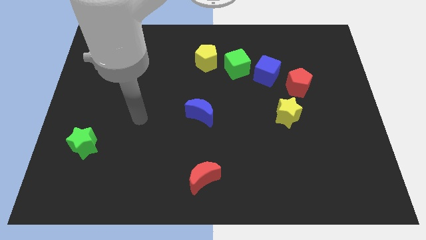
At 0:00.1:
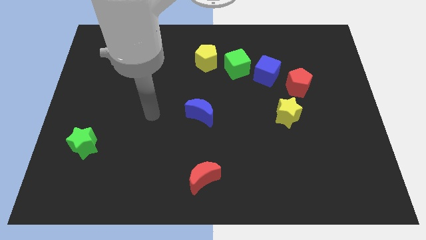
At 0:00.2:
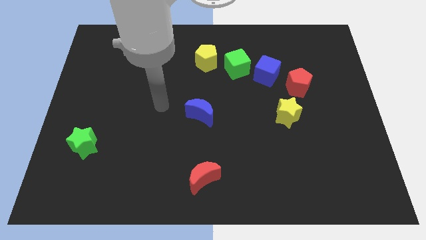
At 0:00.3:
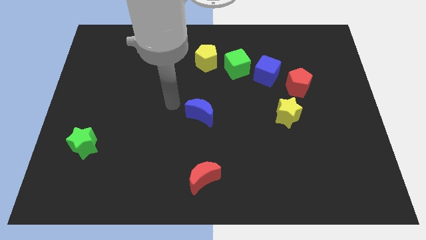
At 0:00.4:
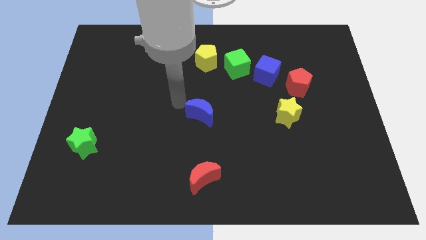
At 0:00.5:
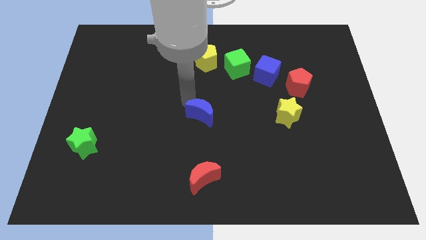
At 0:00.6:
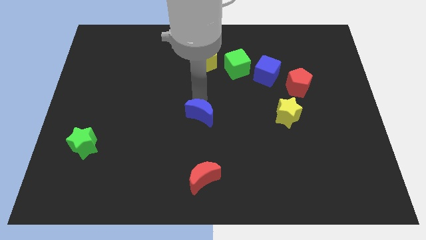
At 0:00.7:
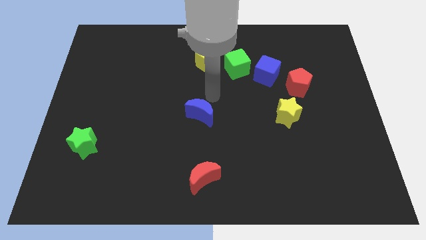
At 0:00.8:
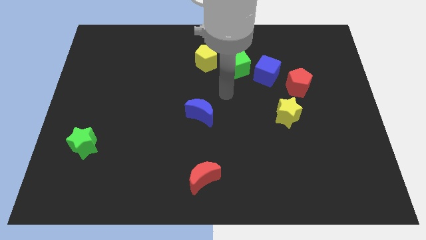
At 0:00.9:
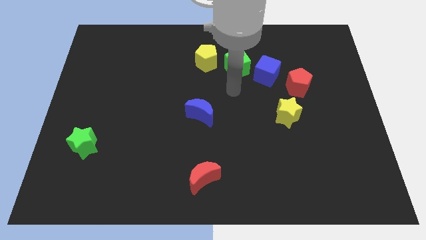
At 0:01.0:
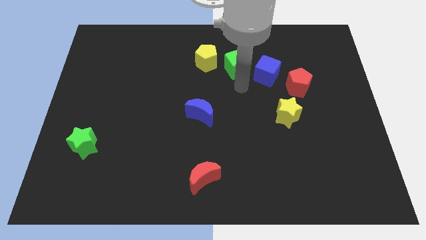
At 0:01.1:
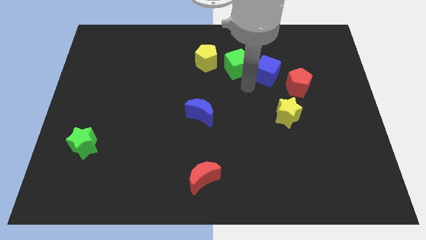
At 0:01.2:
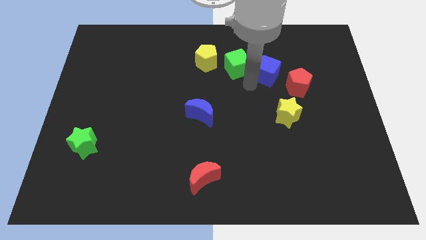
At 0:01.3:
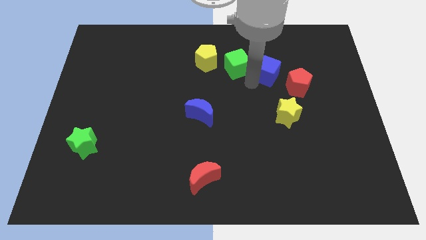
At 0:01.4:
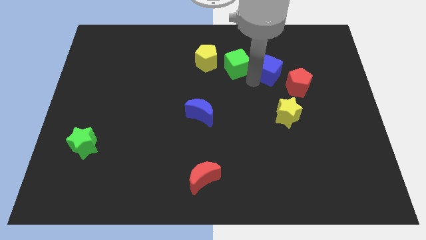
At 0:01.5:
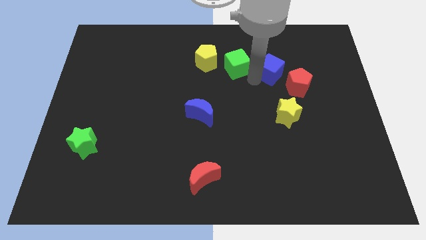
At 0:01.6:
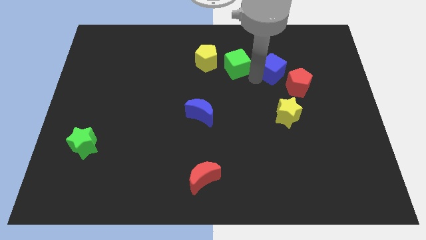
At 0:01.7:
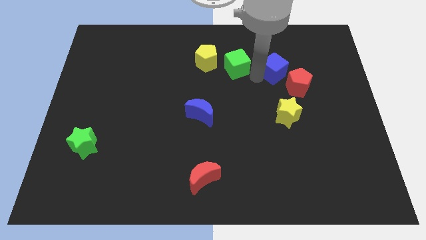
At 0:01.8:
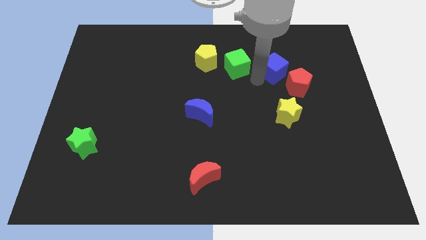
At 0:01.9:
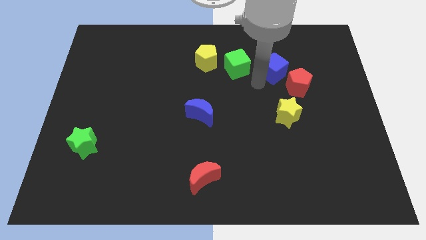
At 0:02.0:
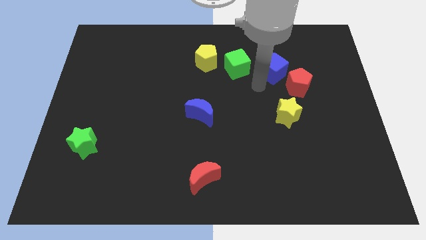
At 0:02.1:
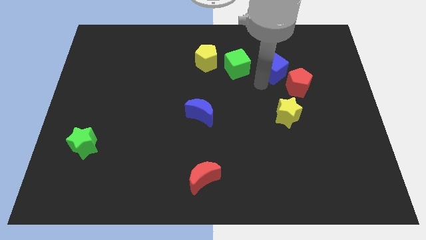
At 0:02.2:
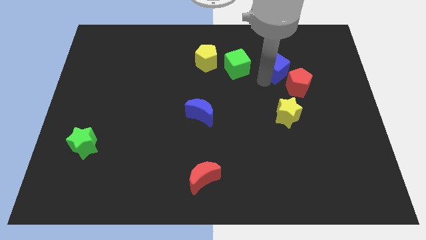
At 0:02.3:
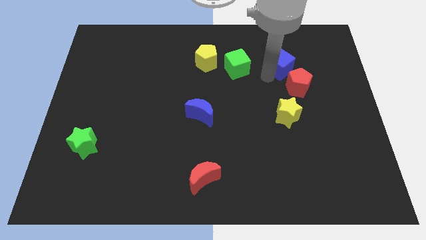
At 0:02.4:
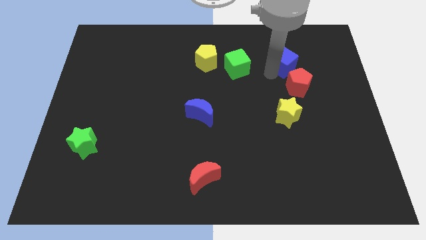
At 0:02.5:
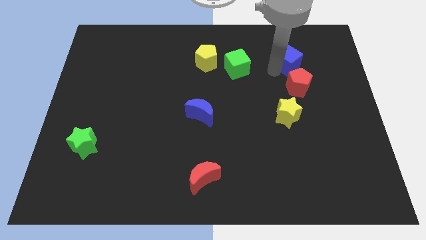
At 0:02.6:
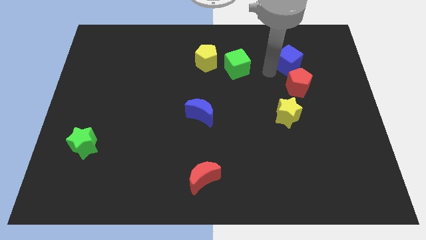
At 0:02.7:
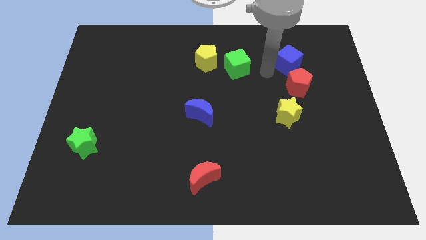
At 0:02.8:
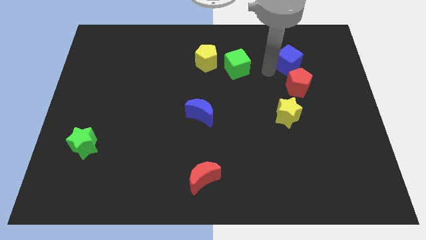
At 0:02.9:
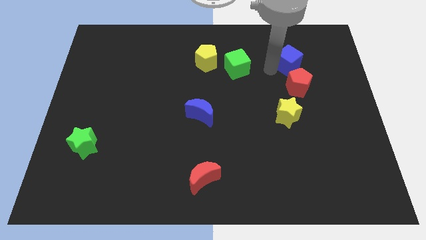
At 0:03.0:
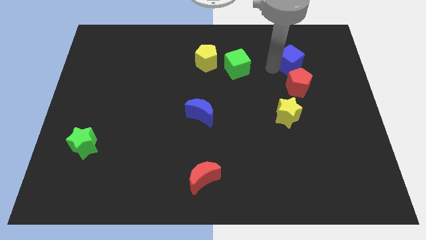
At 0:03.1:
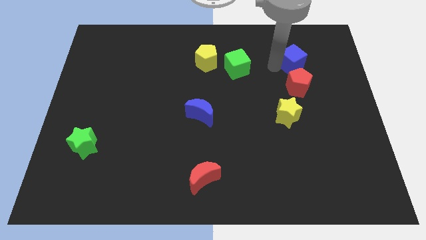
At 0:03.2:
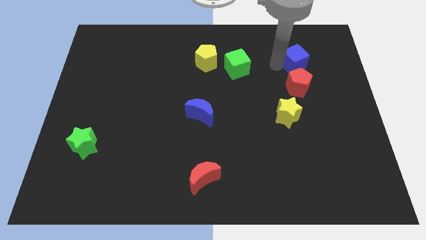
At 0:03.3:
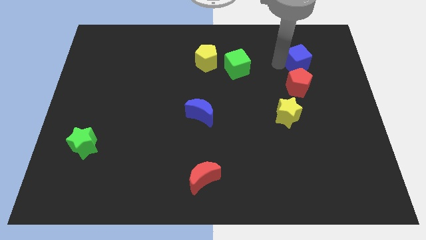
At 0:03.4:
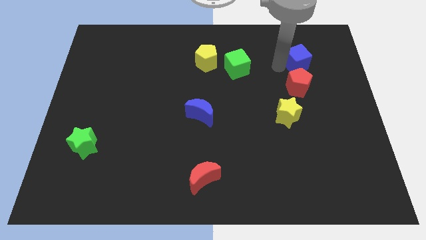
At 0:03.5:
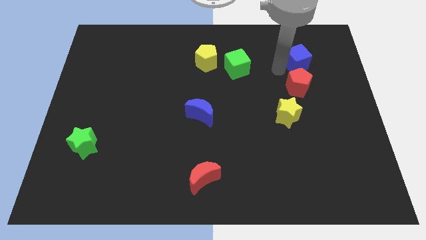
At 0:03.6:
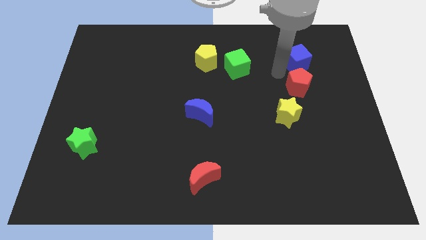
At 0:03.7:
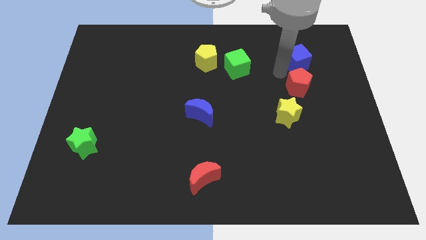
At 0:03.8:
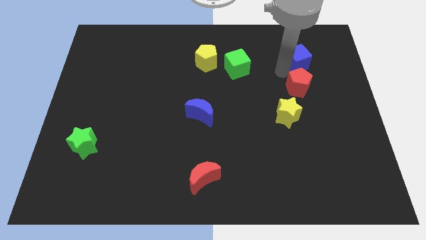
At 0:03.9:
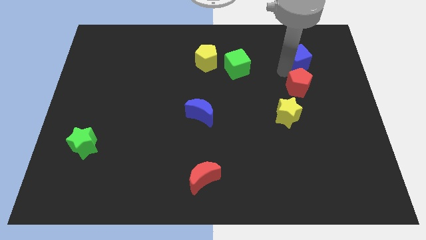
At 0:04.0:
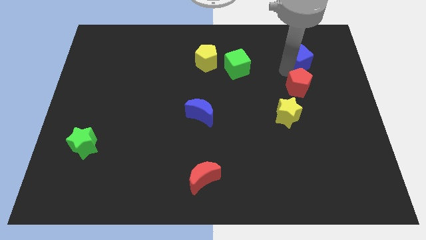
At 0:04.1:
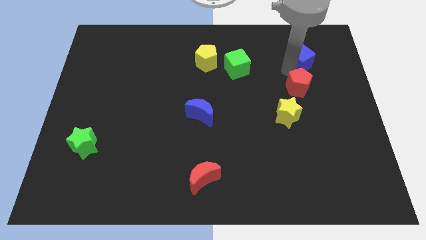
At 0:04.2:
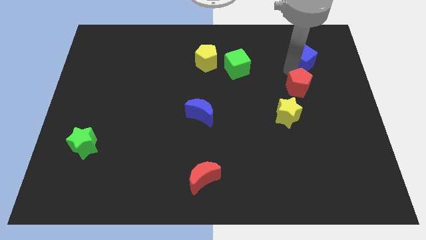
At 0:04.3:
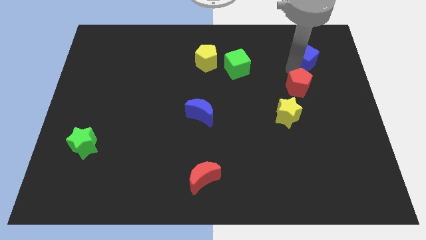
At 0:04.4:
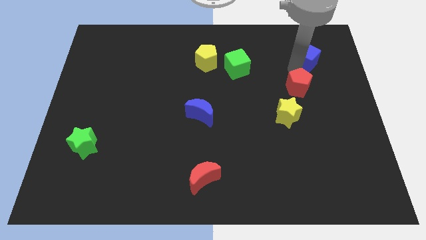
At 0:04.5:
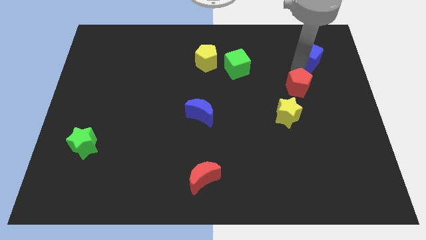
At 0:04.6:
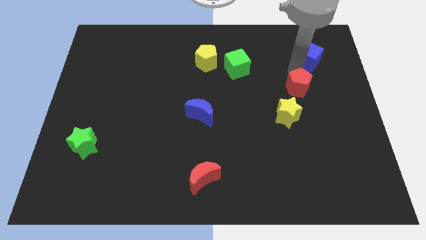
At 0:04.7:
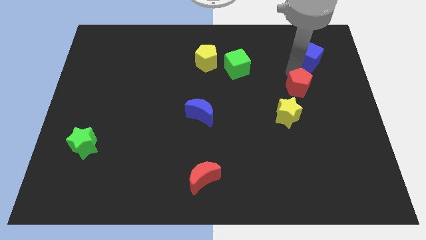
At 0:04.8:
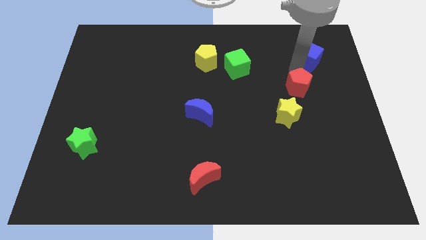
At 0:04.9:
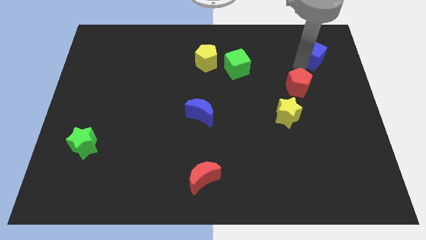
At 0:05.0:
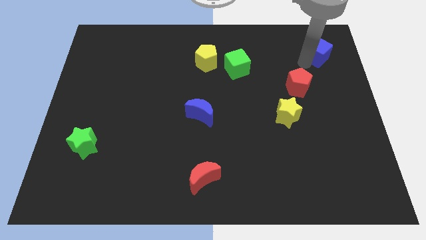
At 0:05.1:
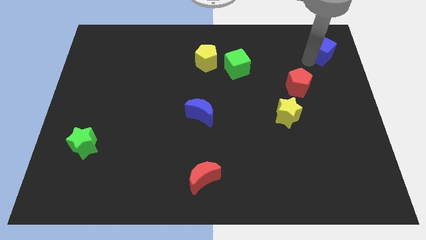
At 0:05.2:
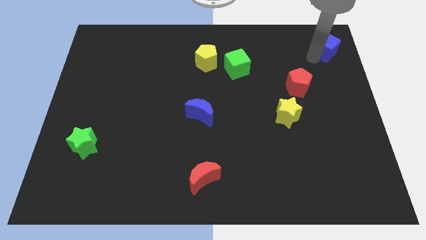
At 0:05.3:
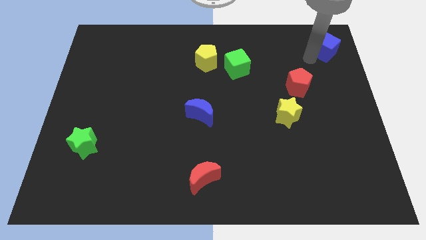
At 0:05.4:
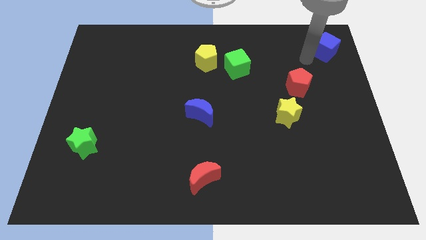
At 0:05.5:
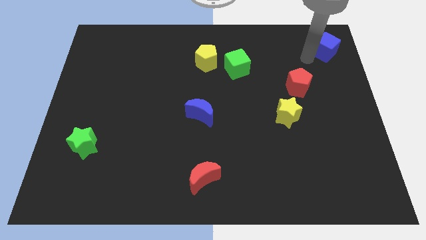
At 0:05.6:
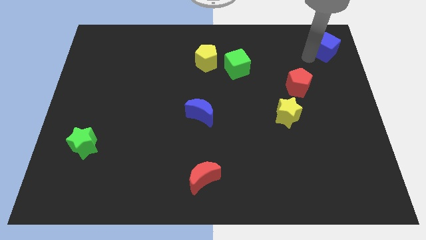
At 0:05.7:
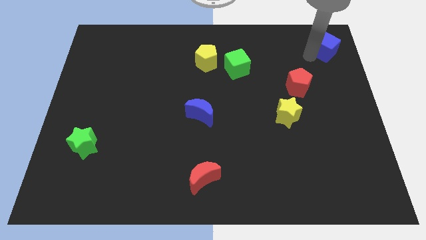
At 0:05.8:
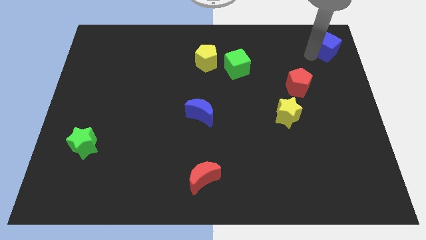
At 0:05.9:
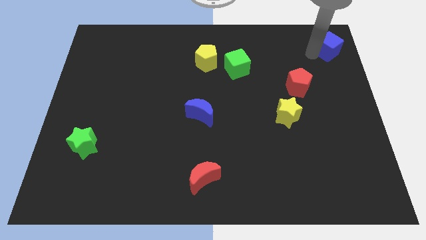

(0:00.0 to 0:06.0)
put the blue cube to the top right corner

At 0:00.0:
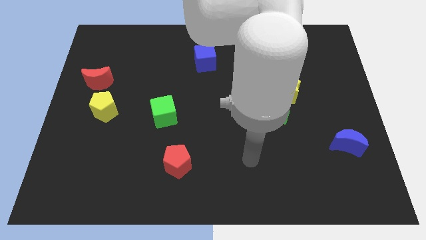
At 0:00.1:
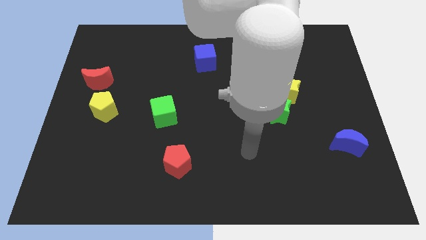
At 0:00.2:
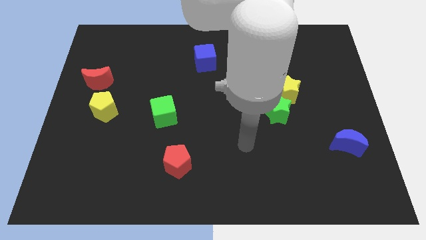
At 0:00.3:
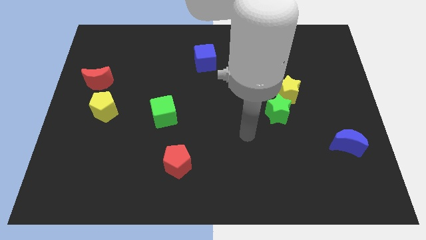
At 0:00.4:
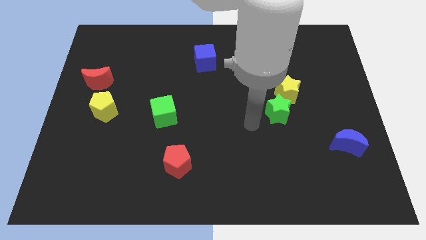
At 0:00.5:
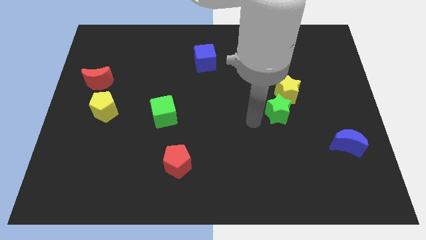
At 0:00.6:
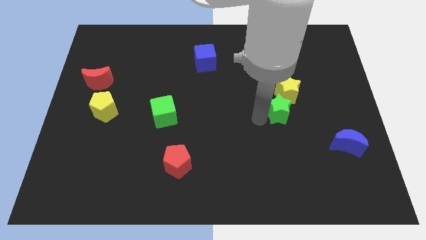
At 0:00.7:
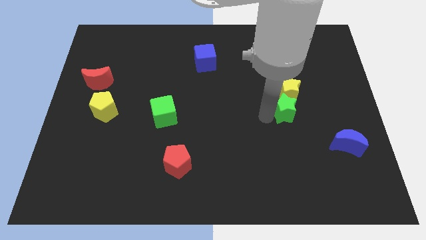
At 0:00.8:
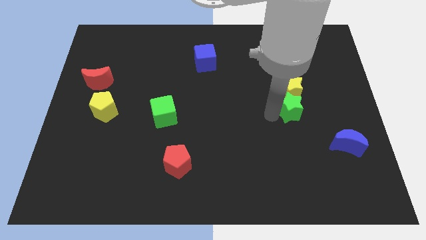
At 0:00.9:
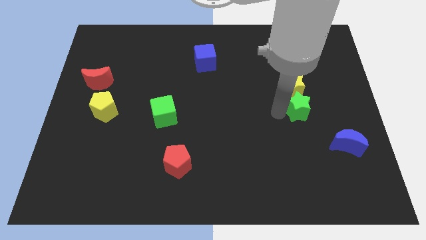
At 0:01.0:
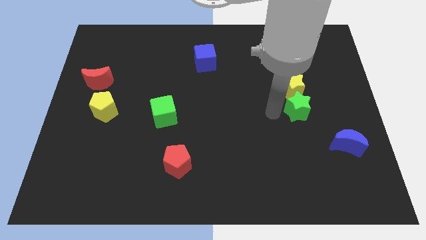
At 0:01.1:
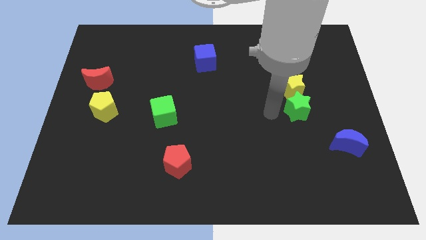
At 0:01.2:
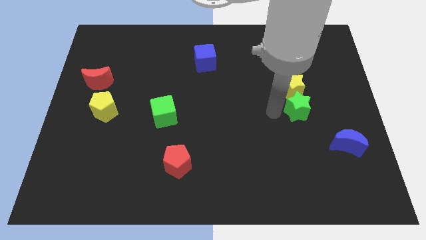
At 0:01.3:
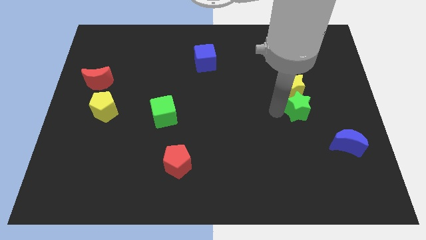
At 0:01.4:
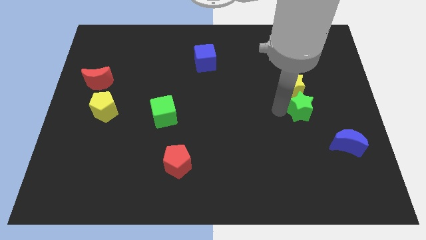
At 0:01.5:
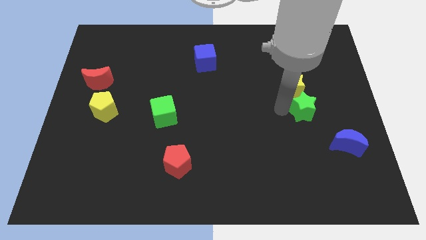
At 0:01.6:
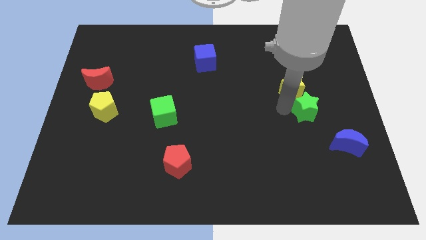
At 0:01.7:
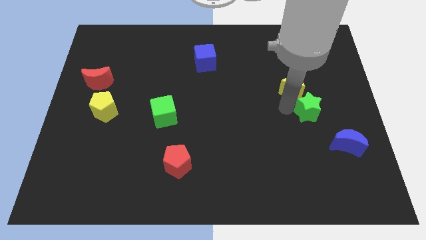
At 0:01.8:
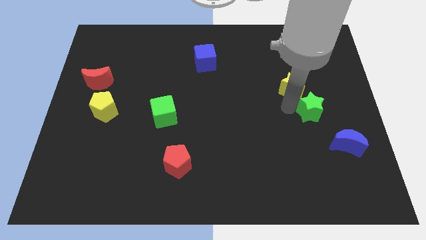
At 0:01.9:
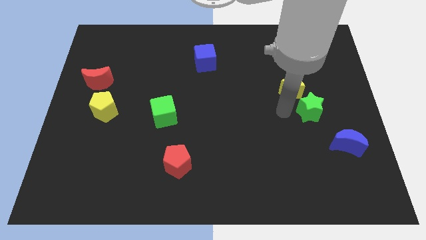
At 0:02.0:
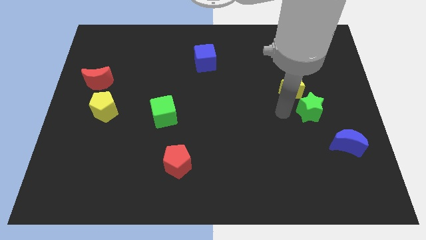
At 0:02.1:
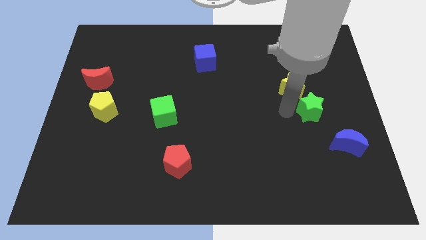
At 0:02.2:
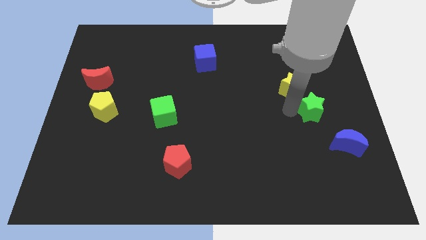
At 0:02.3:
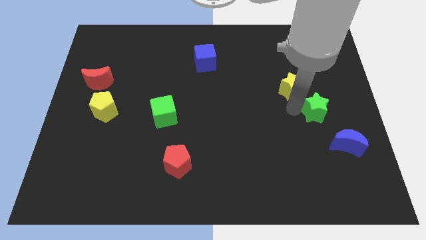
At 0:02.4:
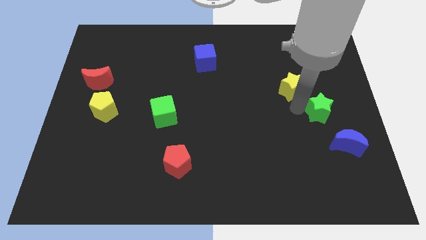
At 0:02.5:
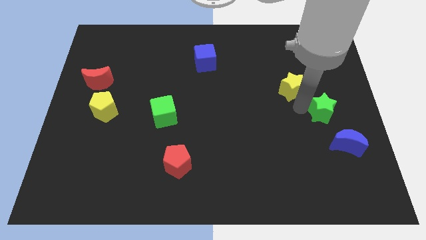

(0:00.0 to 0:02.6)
slide the green star to the center right
